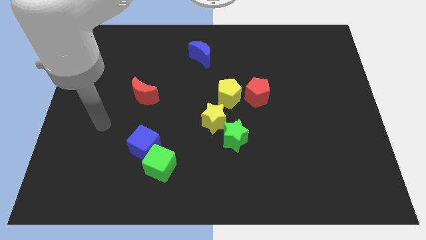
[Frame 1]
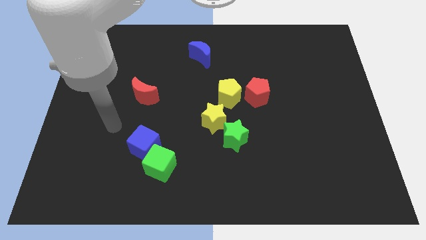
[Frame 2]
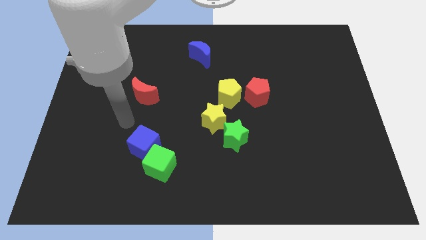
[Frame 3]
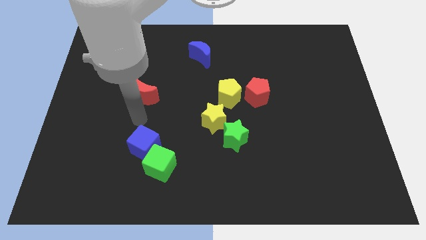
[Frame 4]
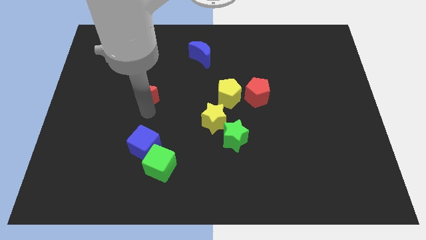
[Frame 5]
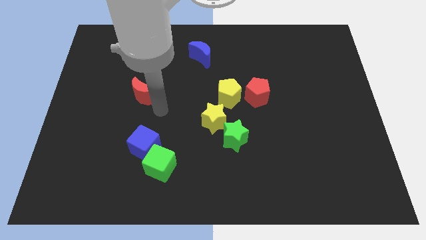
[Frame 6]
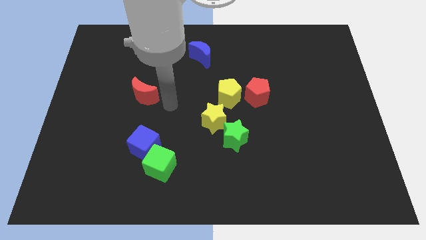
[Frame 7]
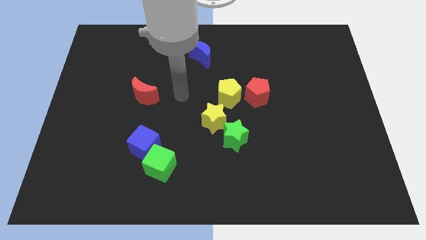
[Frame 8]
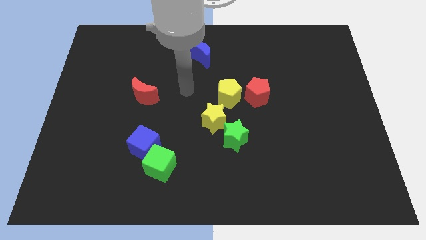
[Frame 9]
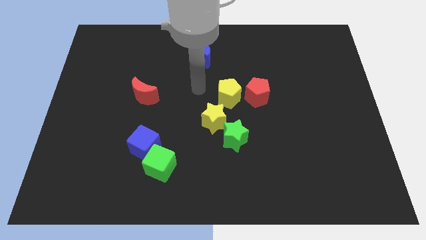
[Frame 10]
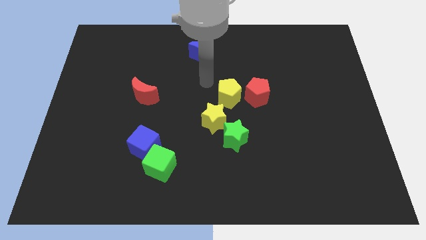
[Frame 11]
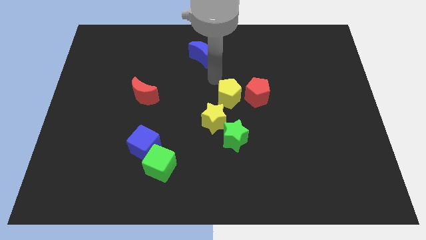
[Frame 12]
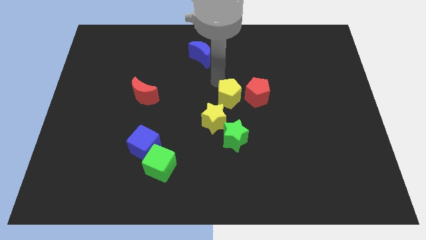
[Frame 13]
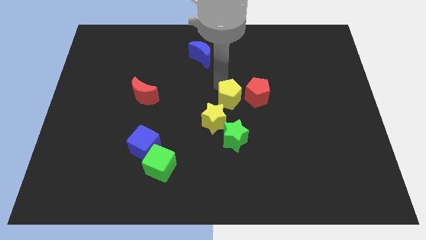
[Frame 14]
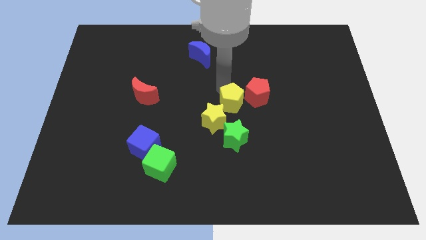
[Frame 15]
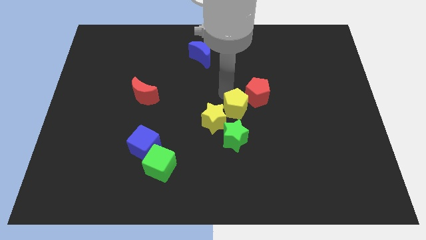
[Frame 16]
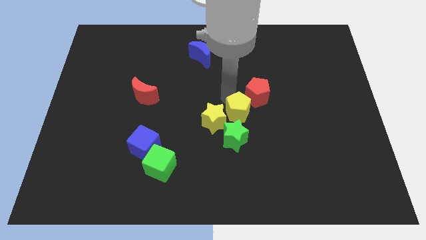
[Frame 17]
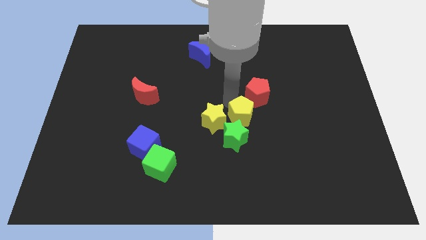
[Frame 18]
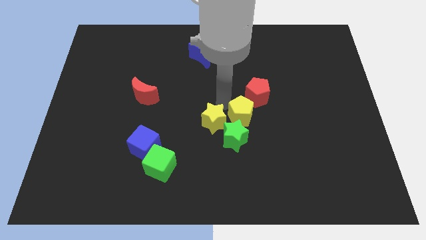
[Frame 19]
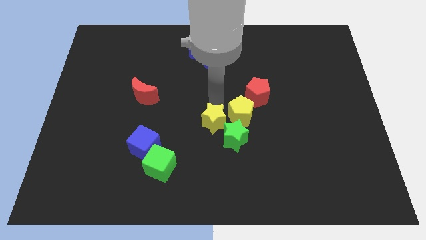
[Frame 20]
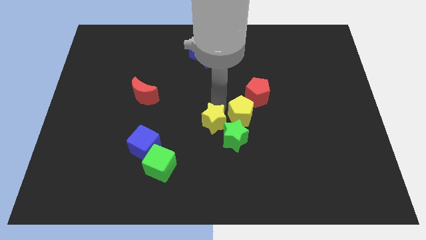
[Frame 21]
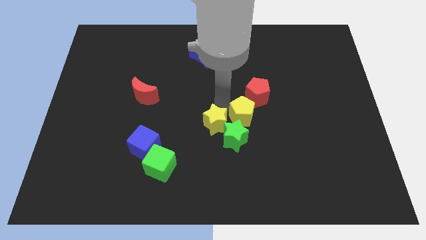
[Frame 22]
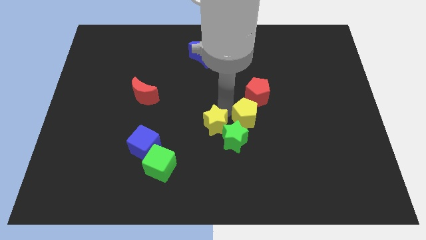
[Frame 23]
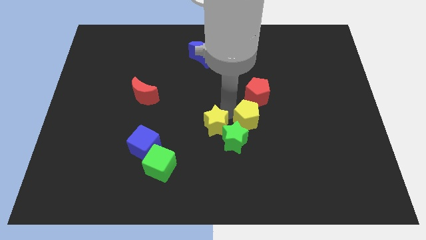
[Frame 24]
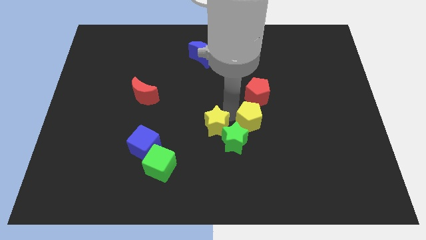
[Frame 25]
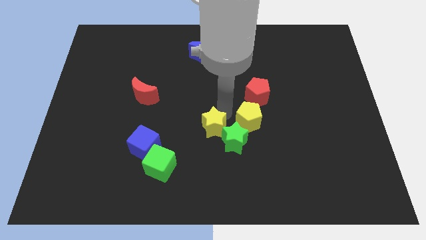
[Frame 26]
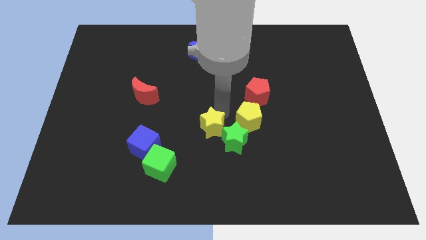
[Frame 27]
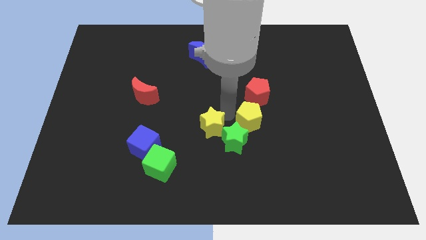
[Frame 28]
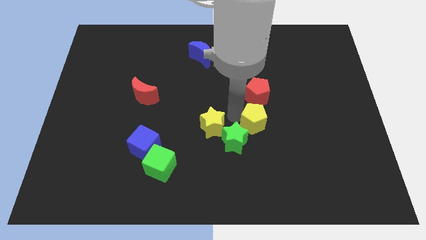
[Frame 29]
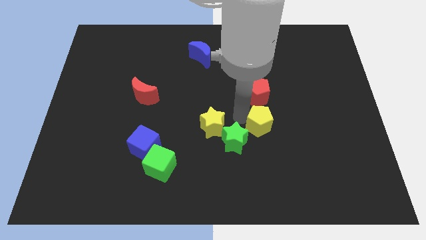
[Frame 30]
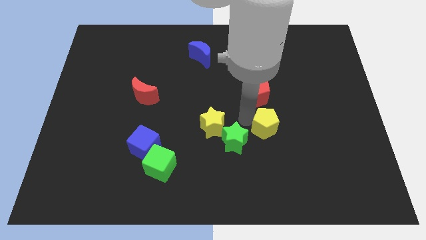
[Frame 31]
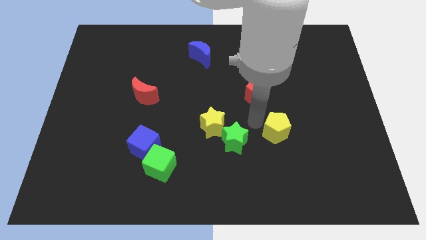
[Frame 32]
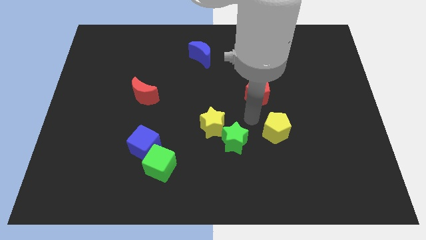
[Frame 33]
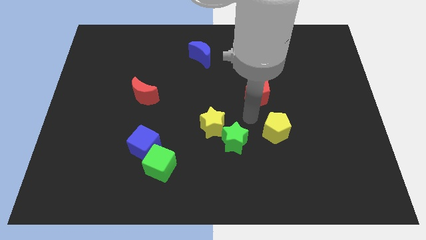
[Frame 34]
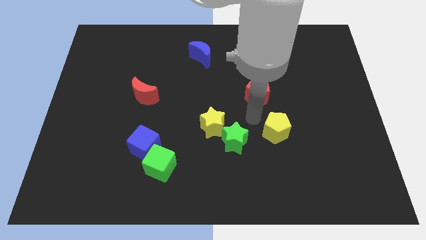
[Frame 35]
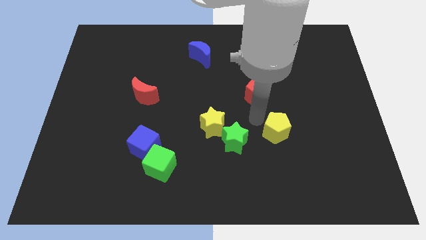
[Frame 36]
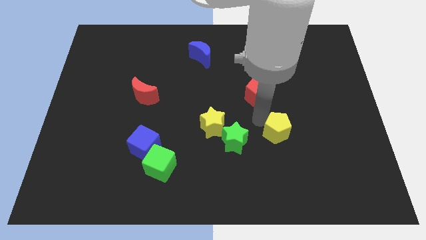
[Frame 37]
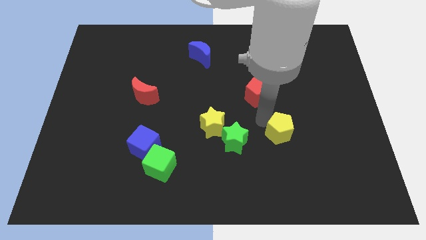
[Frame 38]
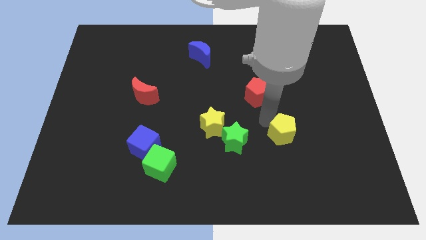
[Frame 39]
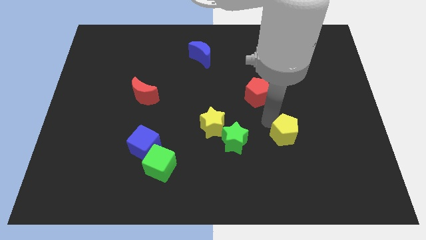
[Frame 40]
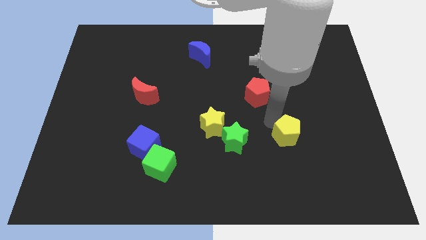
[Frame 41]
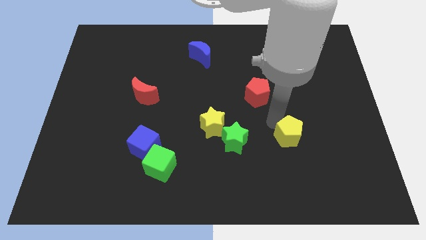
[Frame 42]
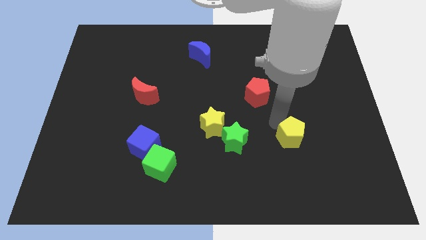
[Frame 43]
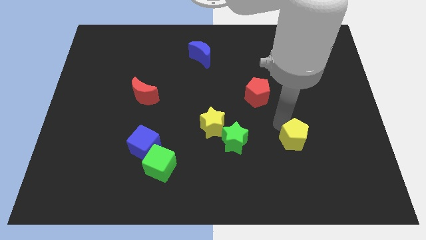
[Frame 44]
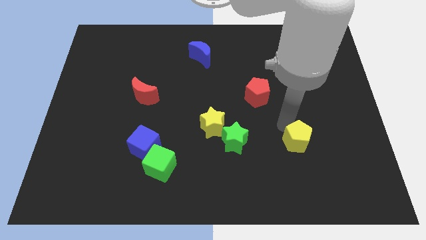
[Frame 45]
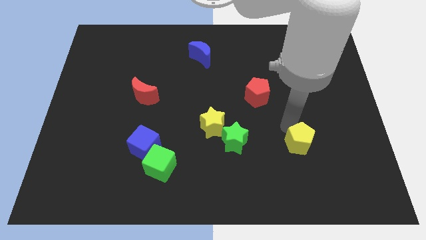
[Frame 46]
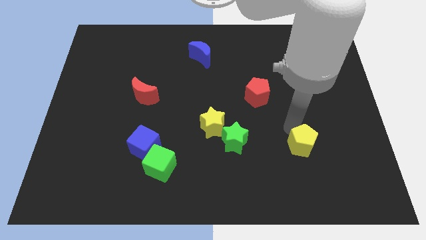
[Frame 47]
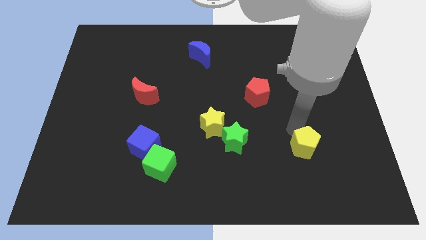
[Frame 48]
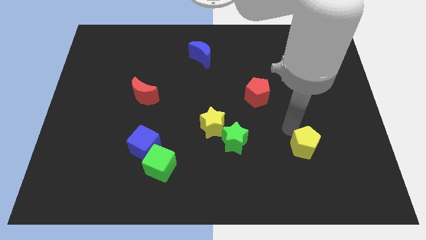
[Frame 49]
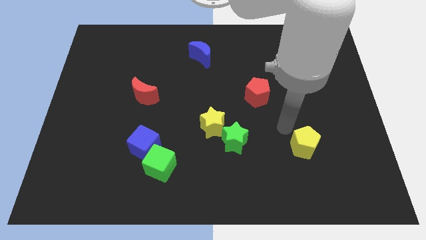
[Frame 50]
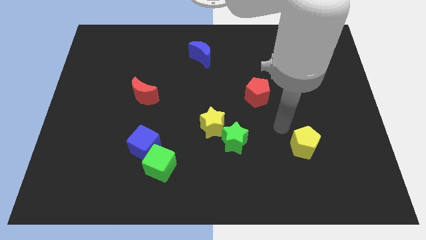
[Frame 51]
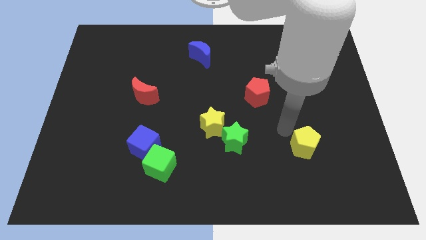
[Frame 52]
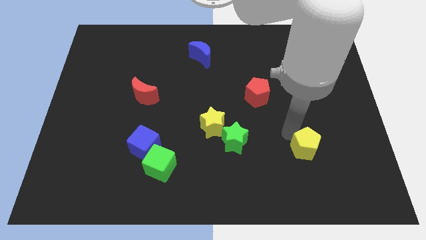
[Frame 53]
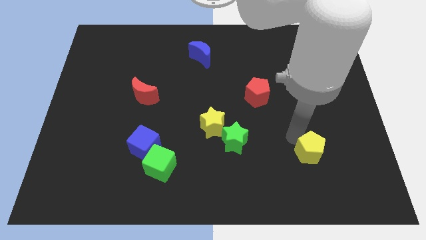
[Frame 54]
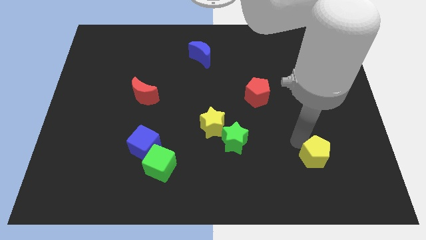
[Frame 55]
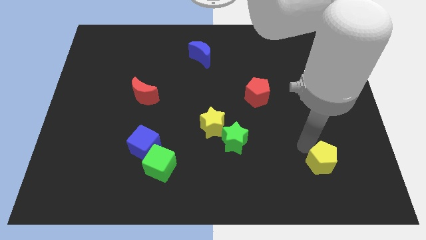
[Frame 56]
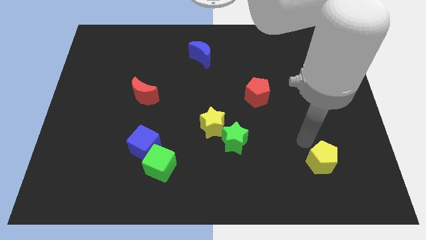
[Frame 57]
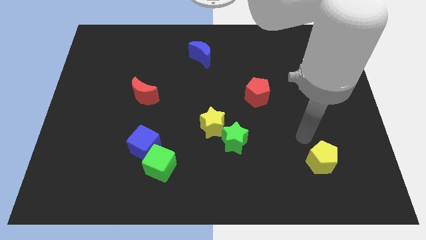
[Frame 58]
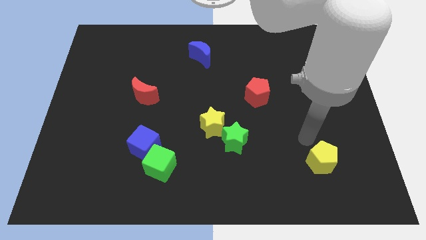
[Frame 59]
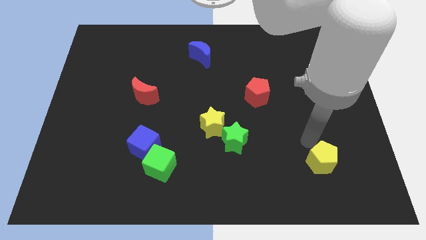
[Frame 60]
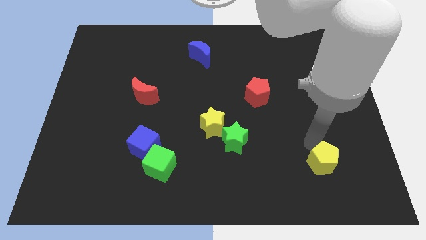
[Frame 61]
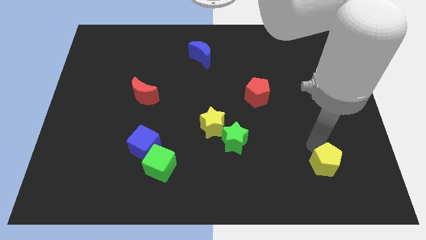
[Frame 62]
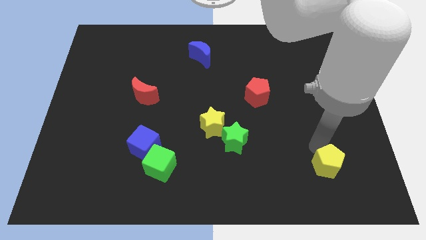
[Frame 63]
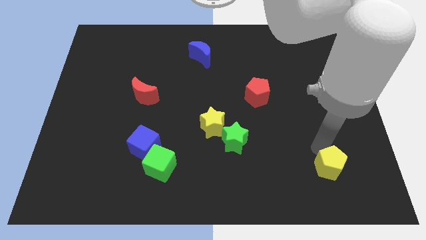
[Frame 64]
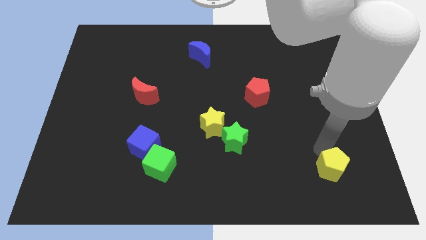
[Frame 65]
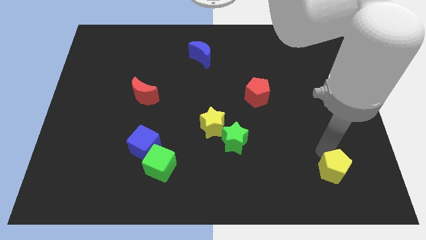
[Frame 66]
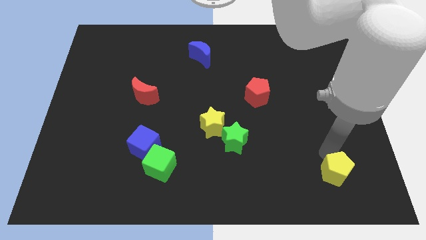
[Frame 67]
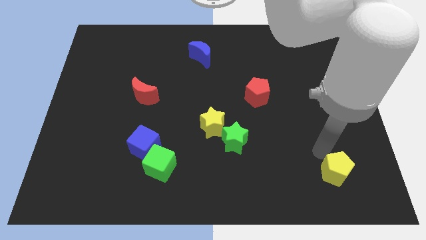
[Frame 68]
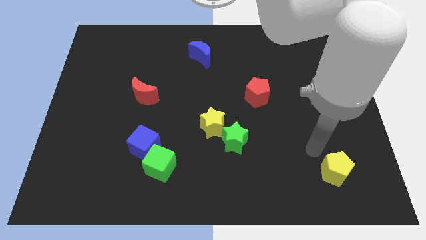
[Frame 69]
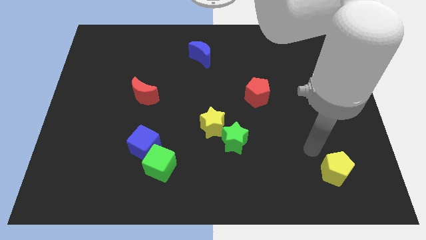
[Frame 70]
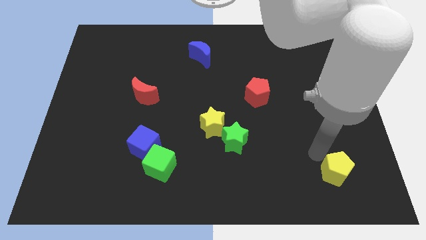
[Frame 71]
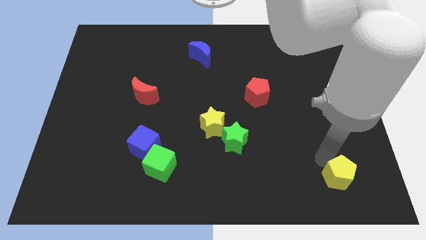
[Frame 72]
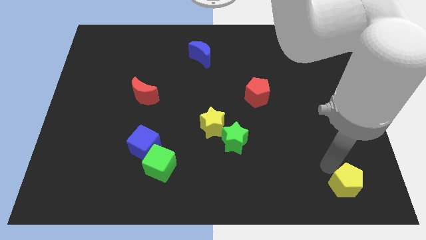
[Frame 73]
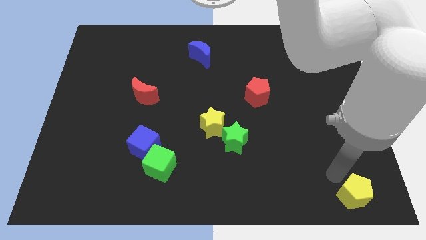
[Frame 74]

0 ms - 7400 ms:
push the yellow pentagon to the lower right corner

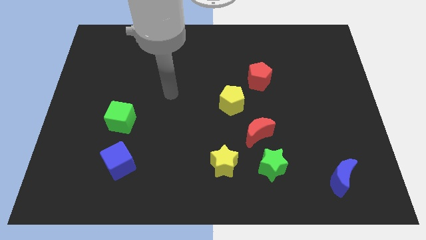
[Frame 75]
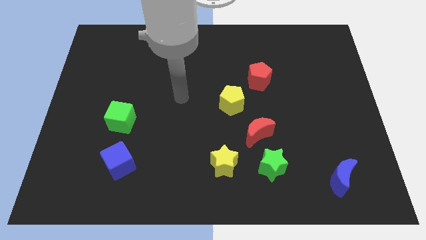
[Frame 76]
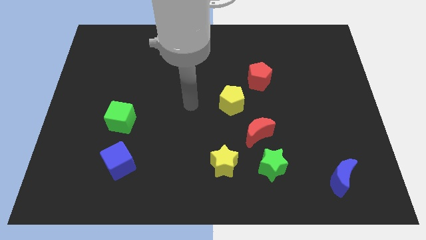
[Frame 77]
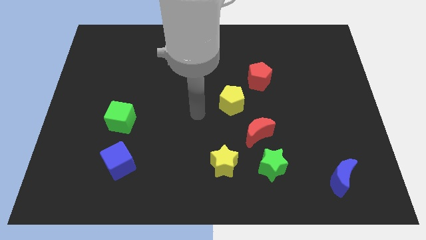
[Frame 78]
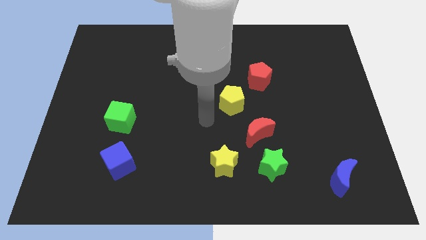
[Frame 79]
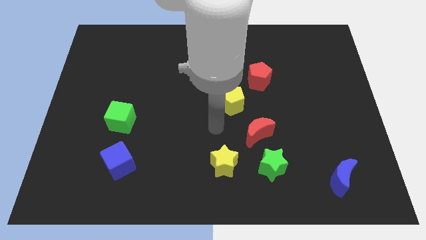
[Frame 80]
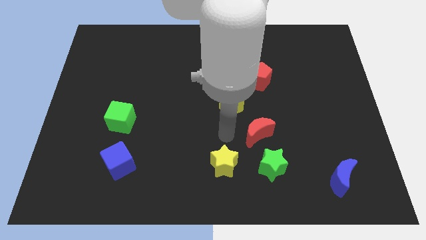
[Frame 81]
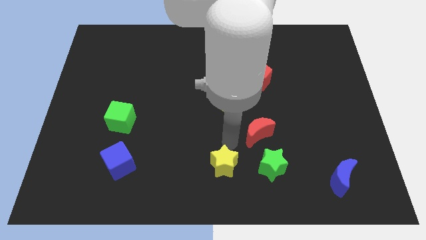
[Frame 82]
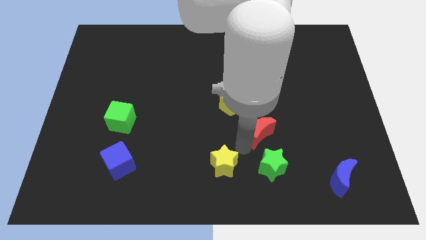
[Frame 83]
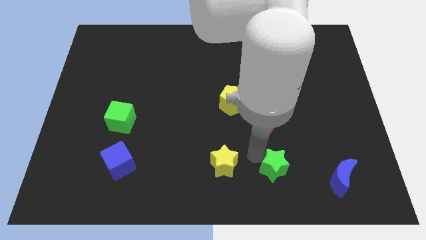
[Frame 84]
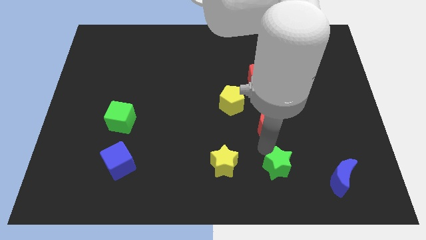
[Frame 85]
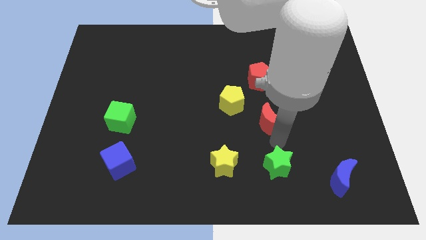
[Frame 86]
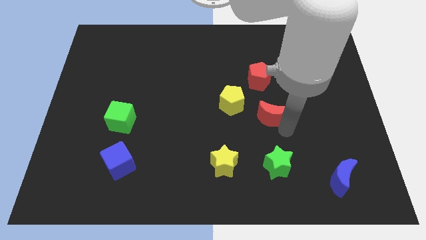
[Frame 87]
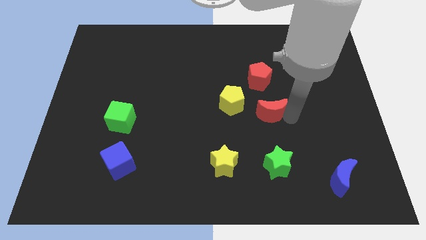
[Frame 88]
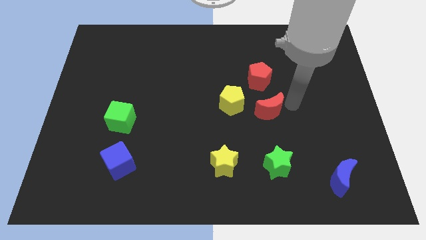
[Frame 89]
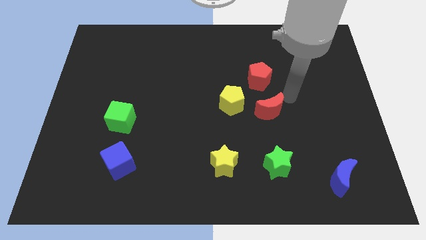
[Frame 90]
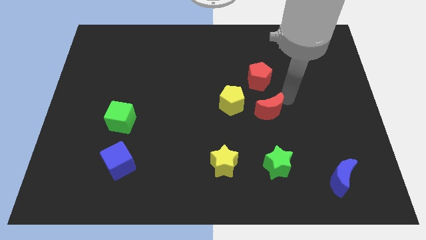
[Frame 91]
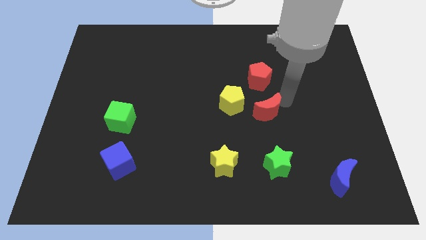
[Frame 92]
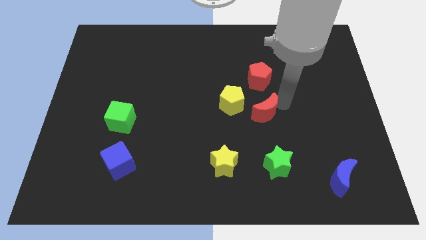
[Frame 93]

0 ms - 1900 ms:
move the red moon to the middle
